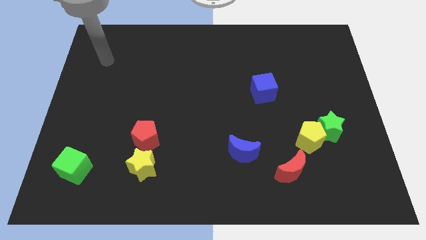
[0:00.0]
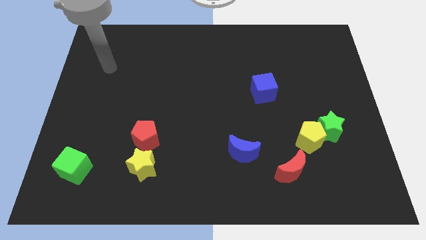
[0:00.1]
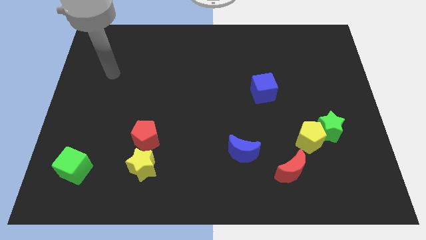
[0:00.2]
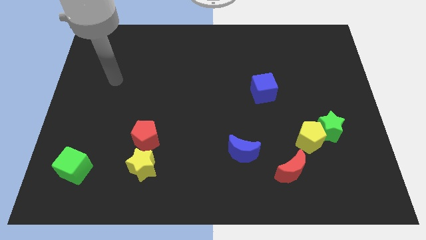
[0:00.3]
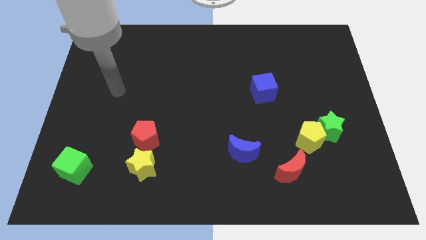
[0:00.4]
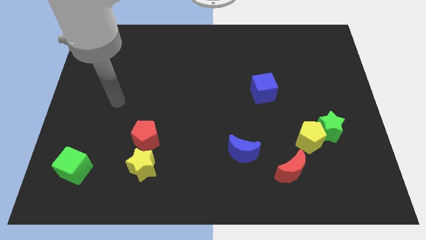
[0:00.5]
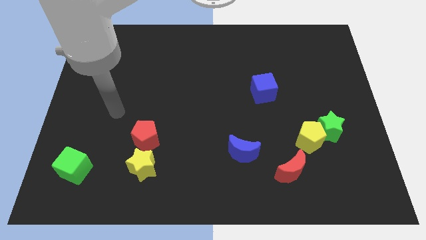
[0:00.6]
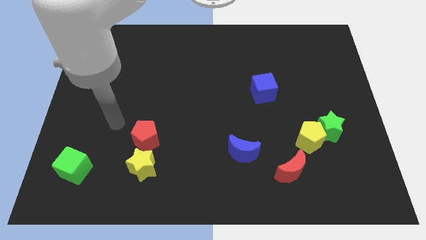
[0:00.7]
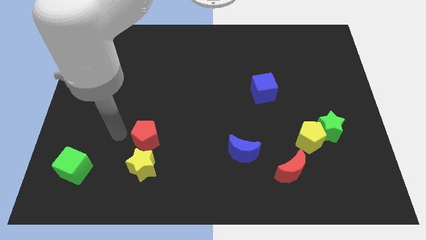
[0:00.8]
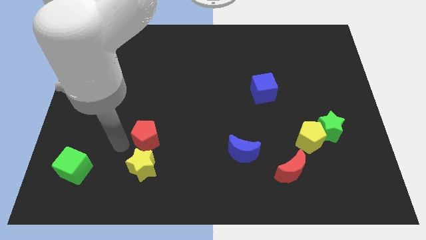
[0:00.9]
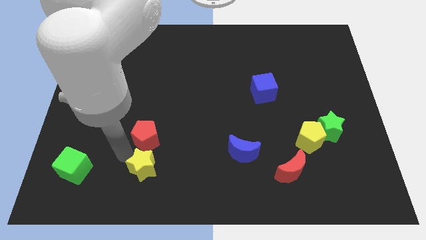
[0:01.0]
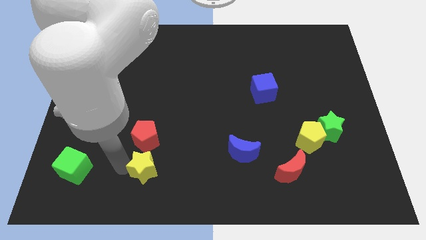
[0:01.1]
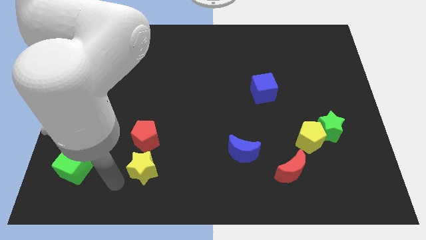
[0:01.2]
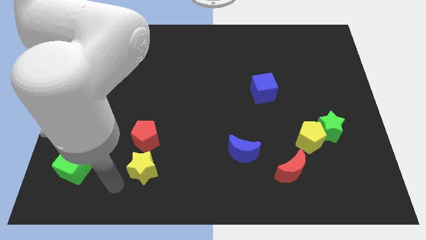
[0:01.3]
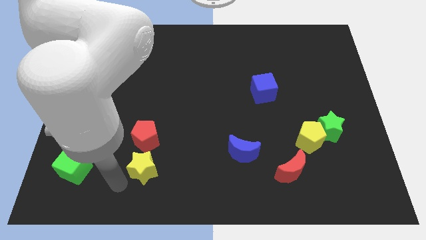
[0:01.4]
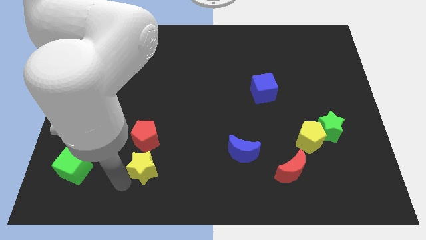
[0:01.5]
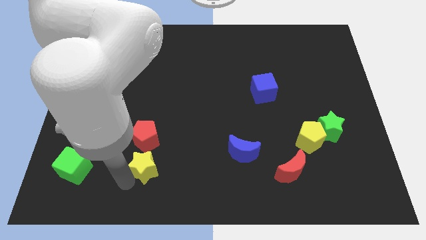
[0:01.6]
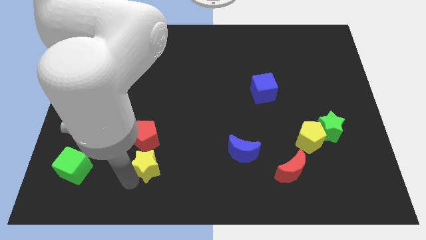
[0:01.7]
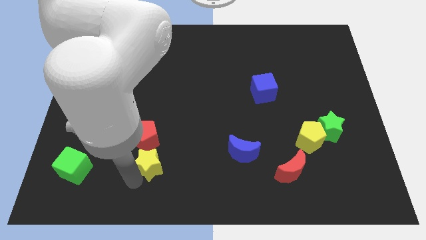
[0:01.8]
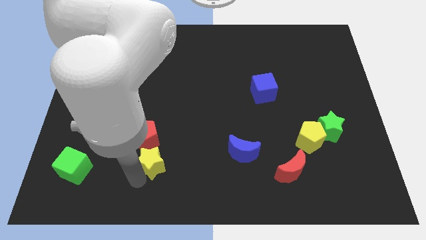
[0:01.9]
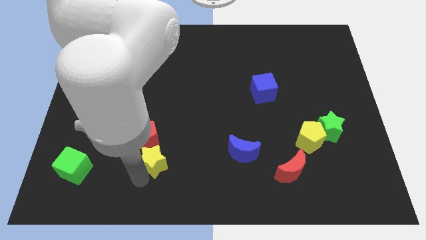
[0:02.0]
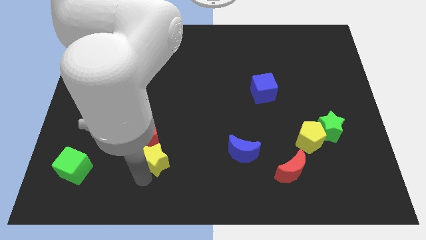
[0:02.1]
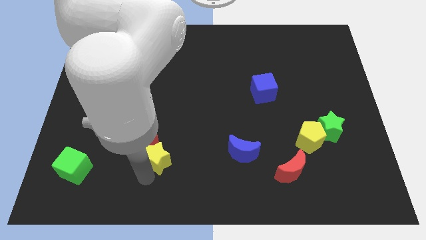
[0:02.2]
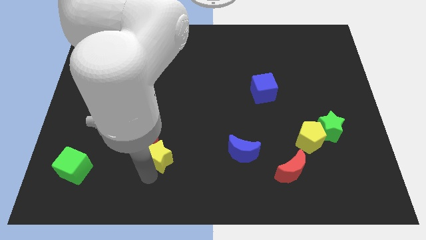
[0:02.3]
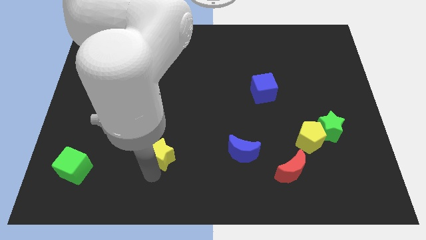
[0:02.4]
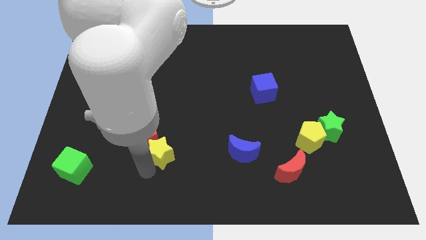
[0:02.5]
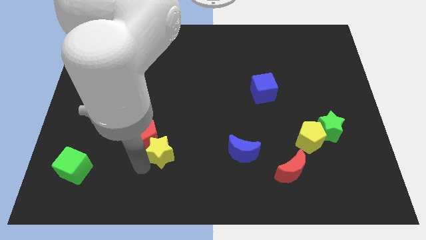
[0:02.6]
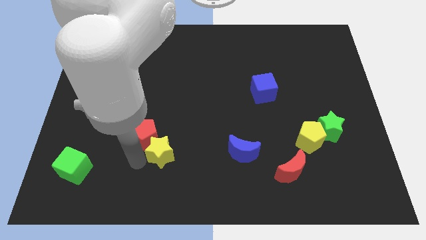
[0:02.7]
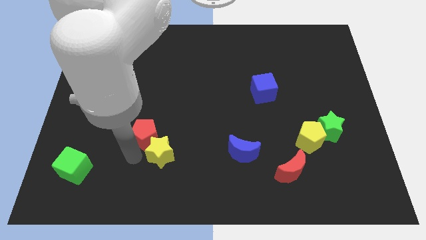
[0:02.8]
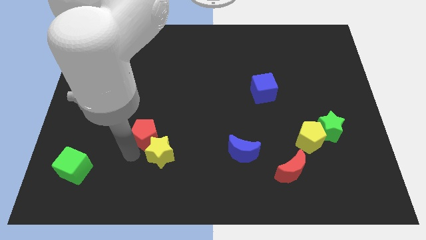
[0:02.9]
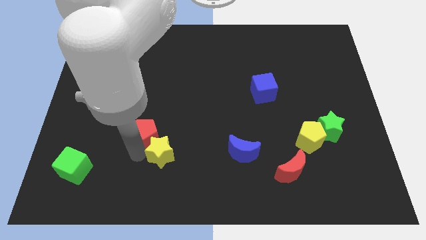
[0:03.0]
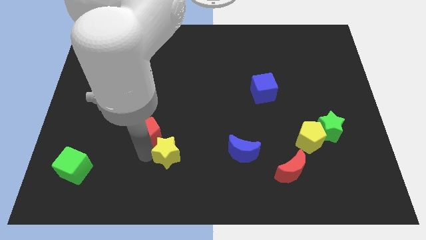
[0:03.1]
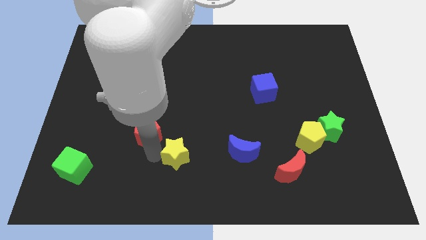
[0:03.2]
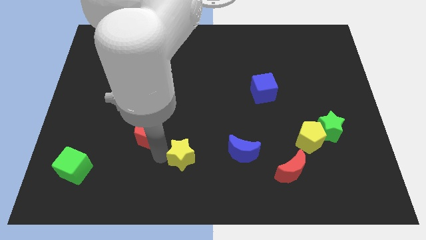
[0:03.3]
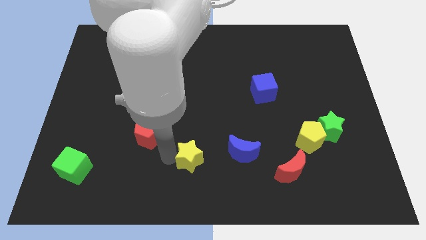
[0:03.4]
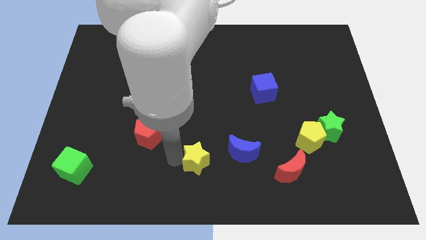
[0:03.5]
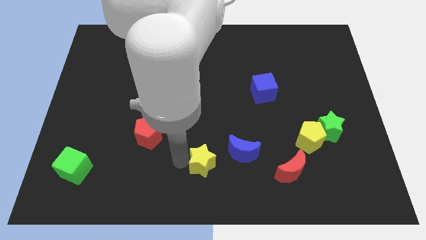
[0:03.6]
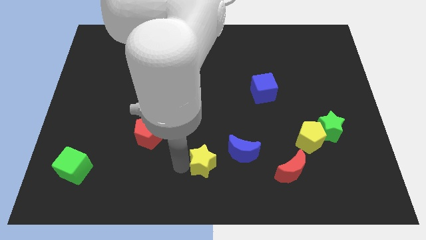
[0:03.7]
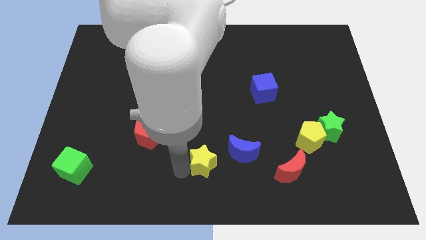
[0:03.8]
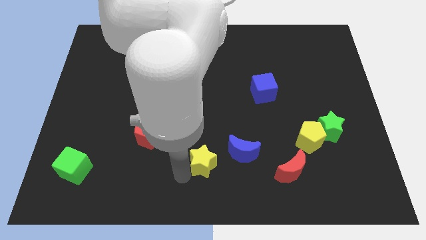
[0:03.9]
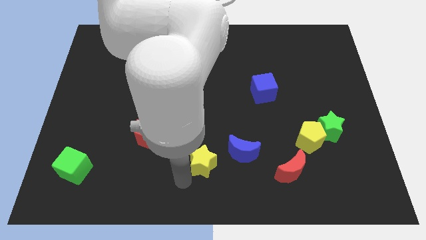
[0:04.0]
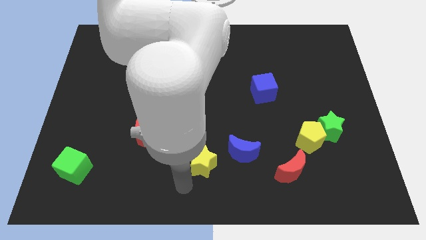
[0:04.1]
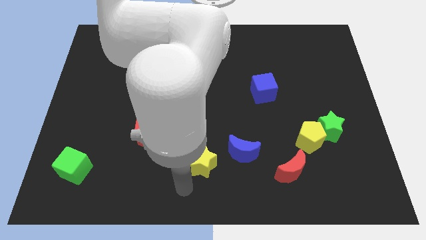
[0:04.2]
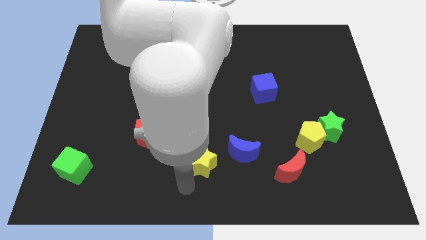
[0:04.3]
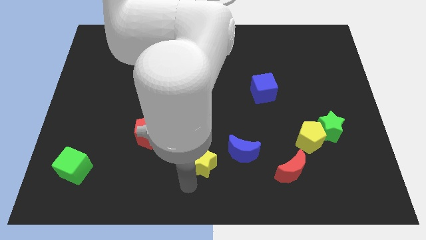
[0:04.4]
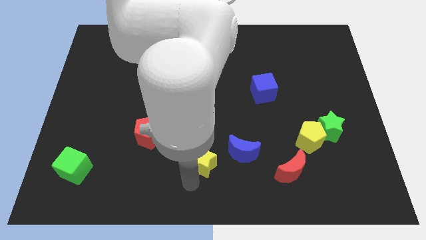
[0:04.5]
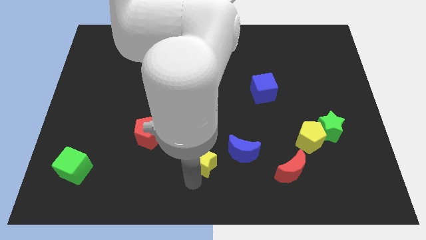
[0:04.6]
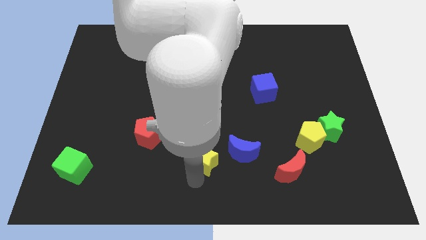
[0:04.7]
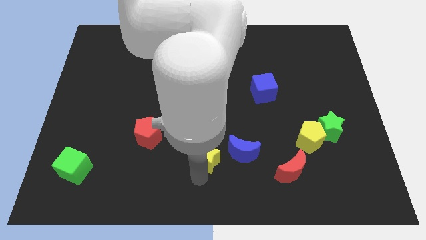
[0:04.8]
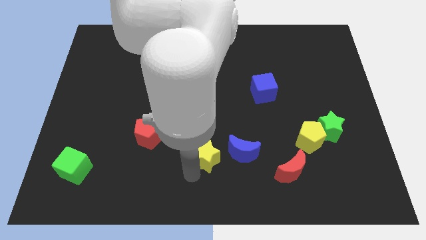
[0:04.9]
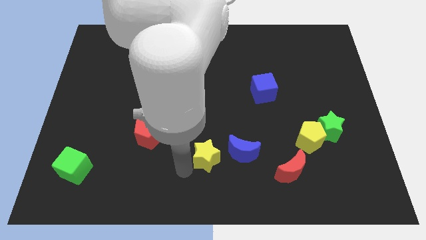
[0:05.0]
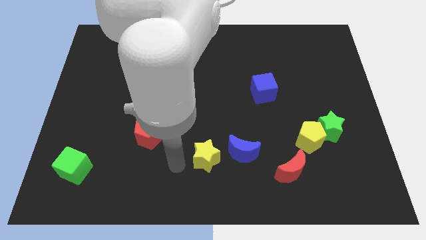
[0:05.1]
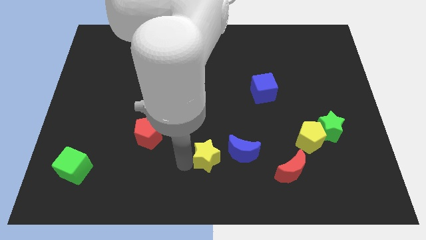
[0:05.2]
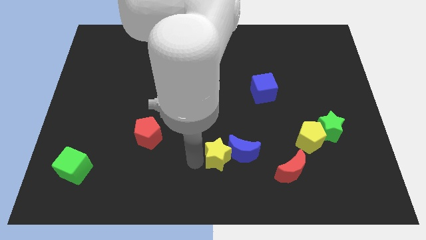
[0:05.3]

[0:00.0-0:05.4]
push the yellow star towards the blue moon
